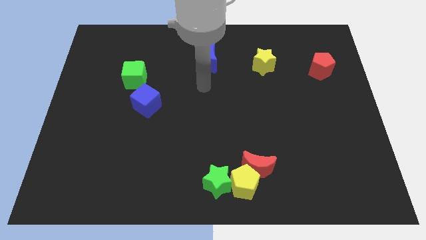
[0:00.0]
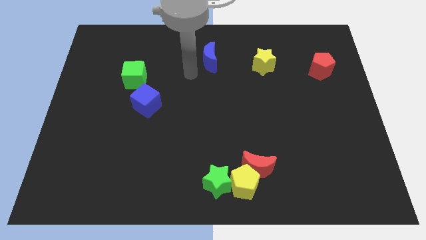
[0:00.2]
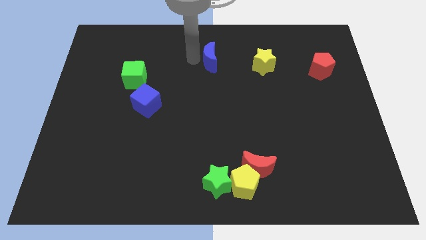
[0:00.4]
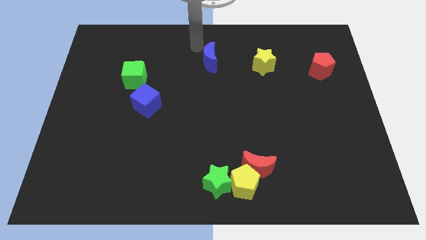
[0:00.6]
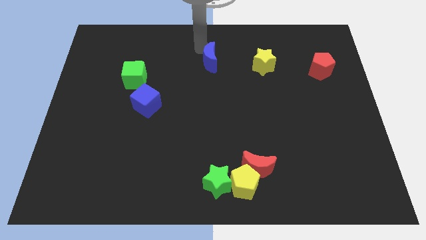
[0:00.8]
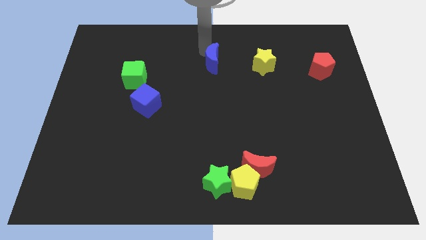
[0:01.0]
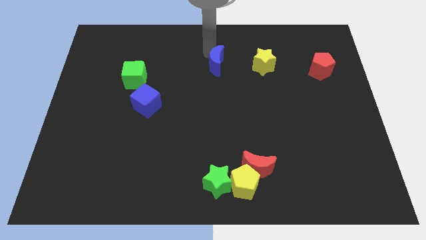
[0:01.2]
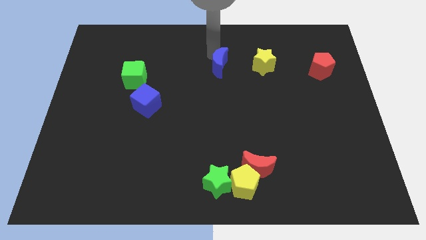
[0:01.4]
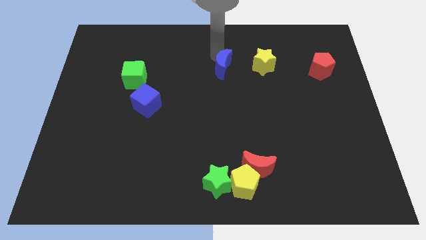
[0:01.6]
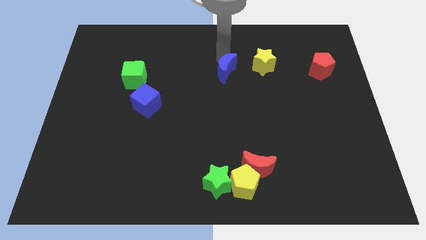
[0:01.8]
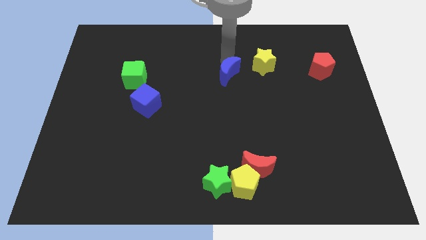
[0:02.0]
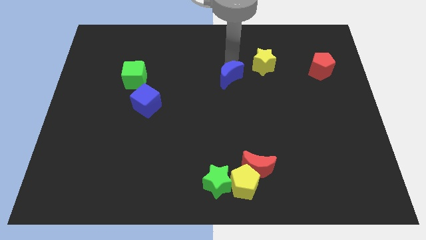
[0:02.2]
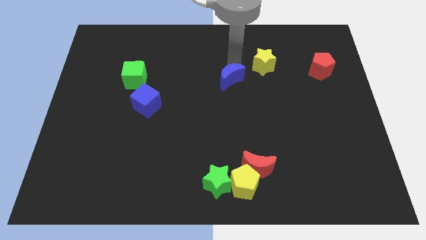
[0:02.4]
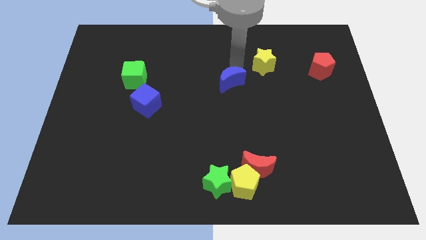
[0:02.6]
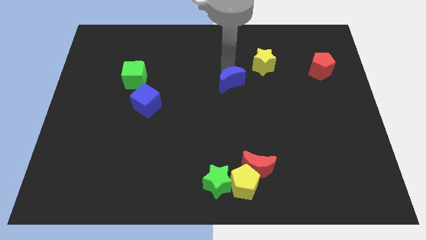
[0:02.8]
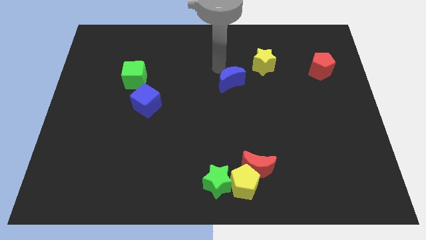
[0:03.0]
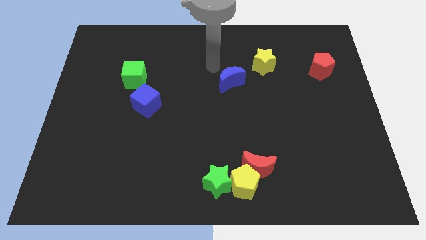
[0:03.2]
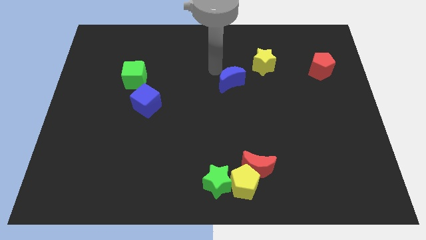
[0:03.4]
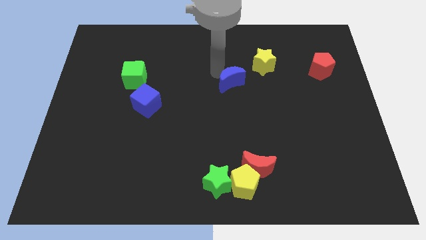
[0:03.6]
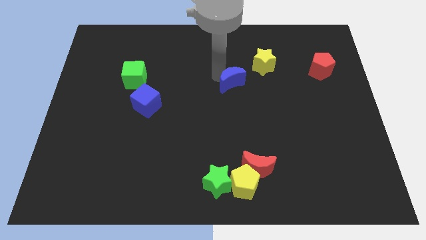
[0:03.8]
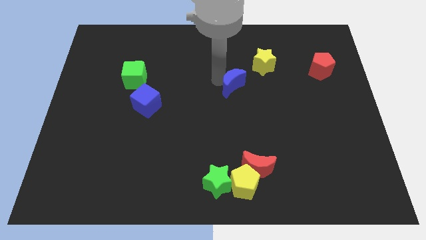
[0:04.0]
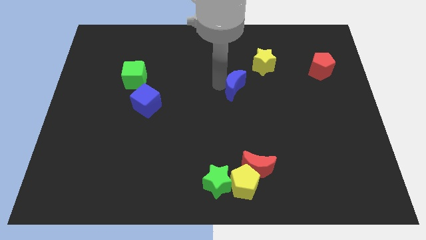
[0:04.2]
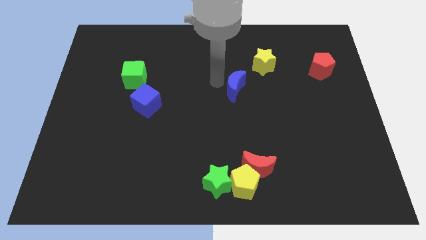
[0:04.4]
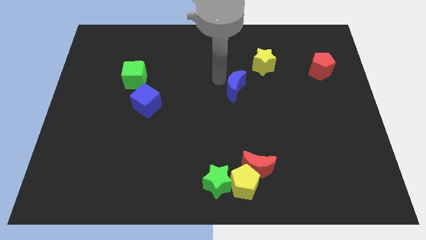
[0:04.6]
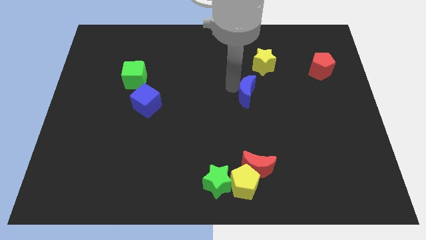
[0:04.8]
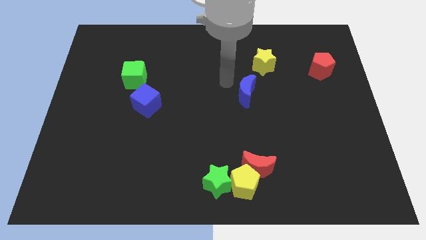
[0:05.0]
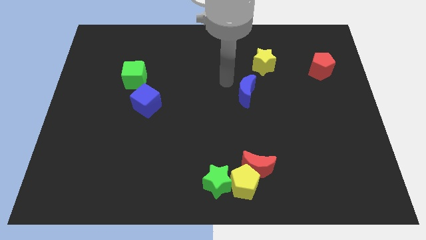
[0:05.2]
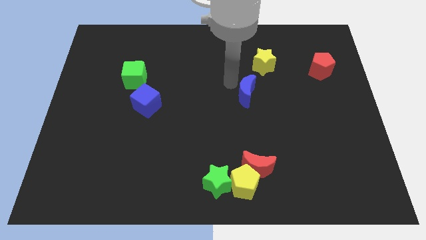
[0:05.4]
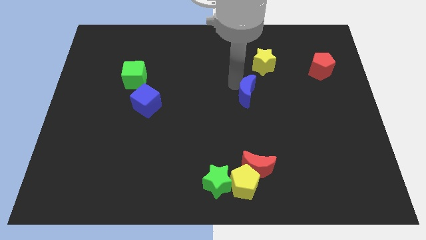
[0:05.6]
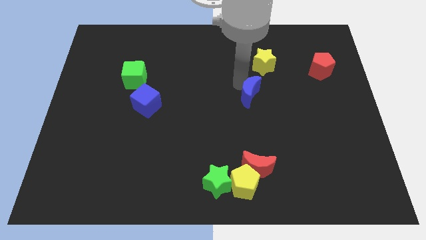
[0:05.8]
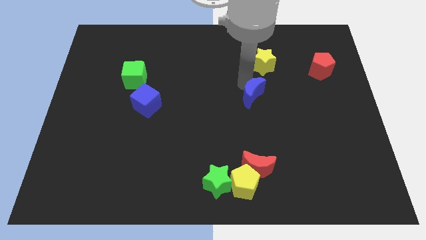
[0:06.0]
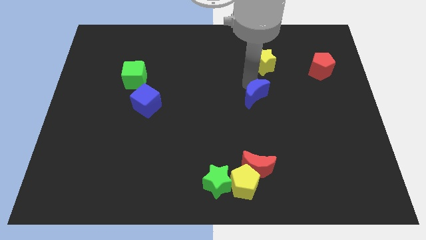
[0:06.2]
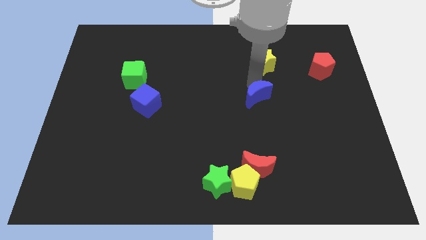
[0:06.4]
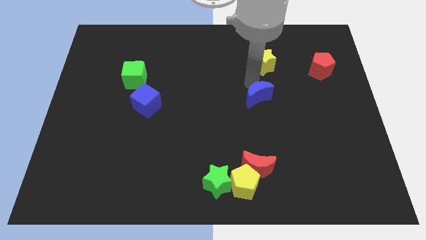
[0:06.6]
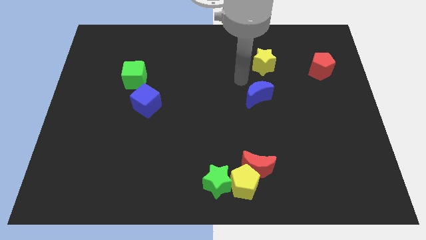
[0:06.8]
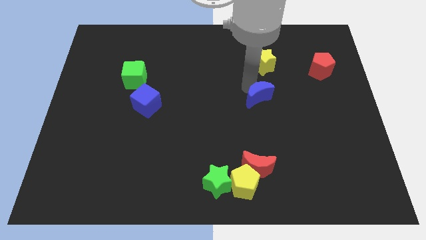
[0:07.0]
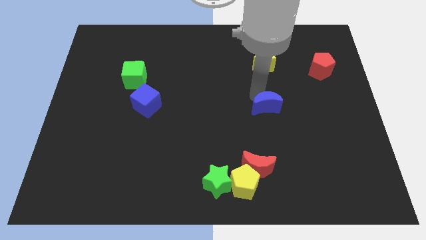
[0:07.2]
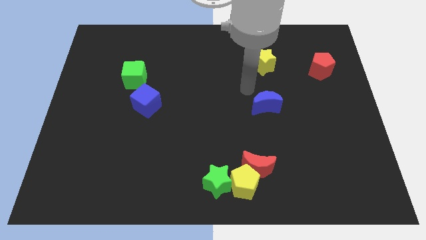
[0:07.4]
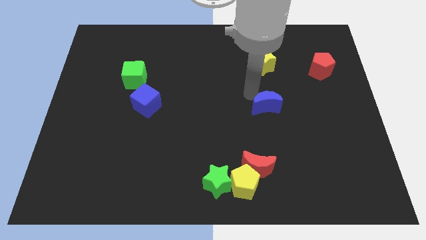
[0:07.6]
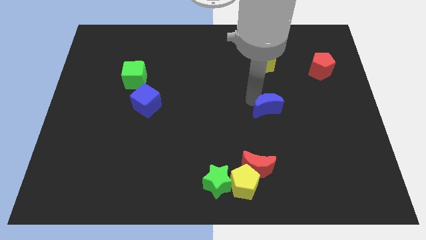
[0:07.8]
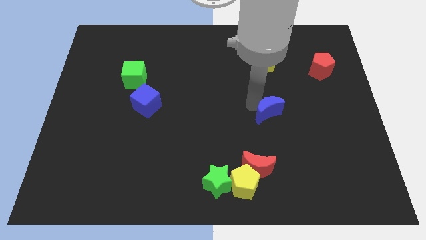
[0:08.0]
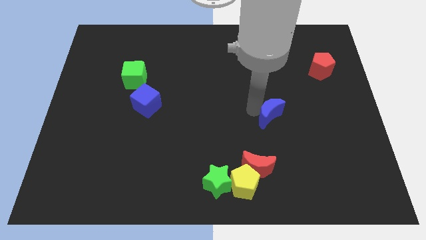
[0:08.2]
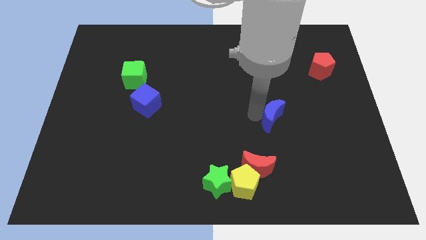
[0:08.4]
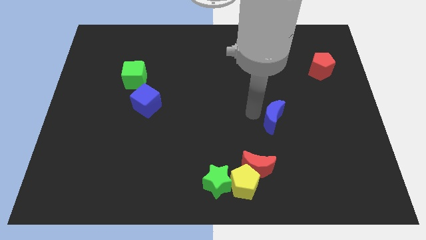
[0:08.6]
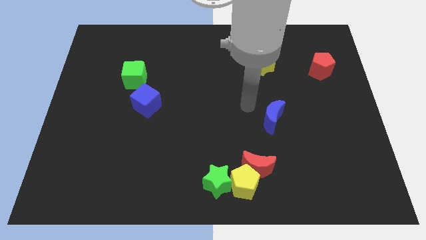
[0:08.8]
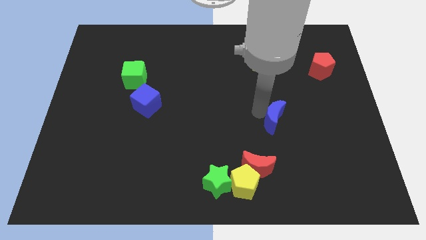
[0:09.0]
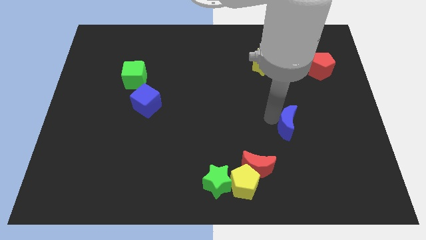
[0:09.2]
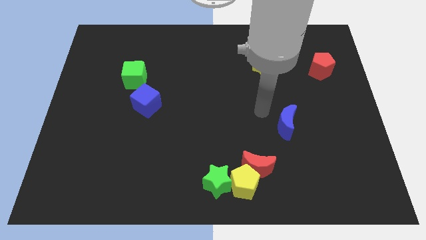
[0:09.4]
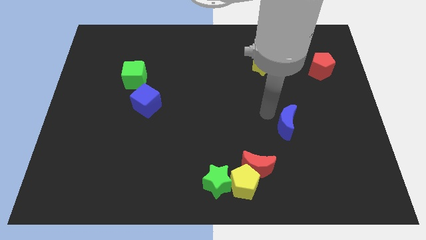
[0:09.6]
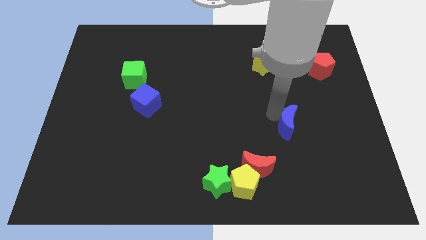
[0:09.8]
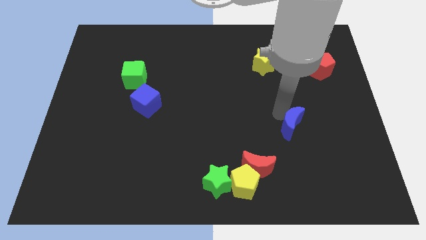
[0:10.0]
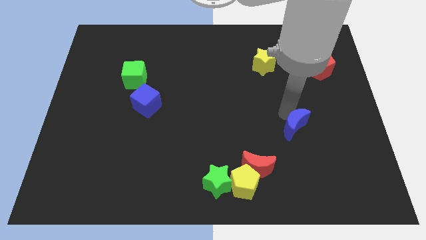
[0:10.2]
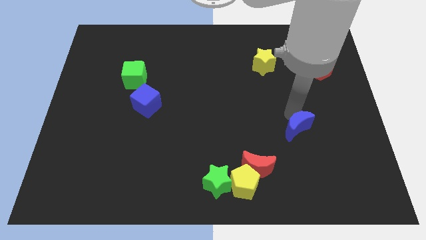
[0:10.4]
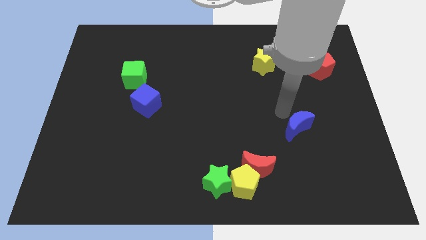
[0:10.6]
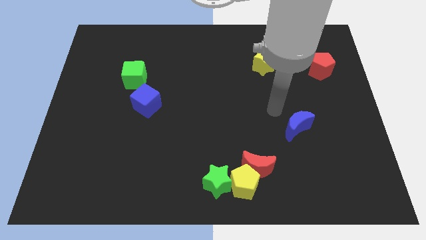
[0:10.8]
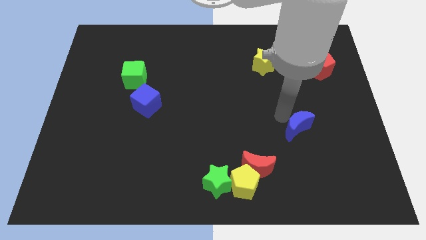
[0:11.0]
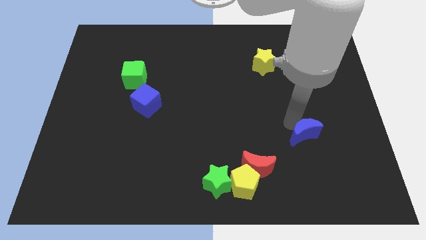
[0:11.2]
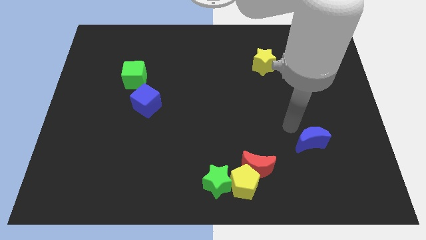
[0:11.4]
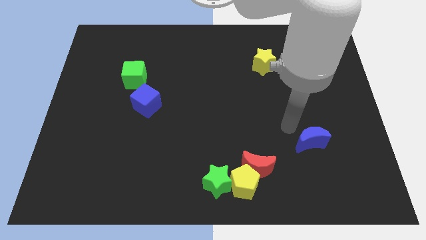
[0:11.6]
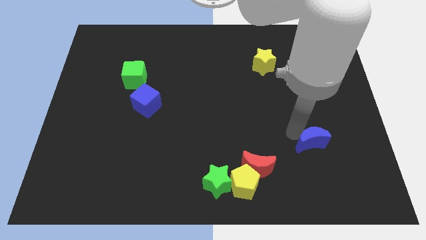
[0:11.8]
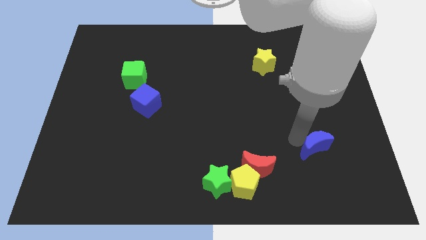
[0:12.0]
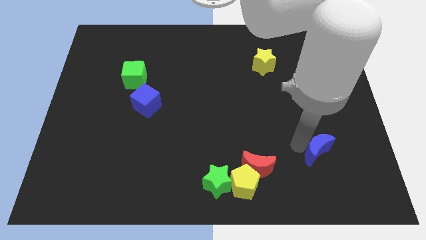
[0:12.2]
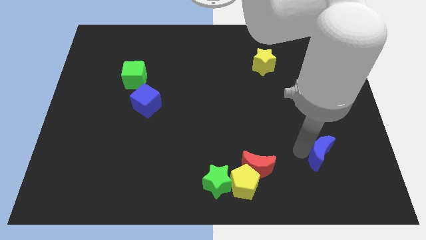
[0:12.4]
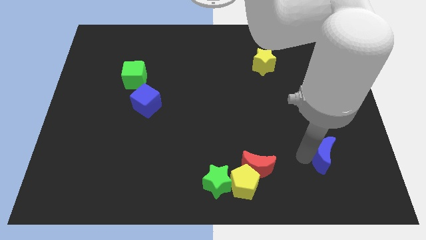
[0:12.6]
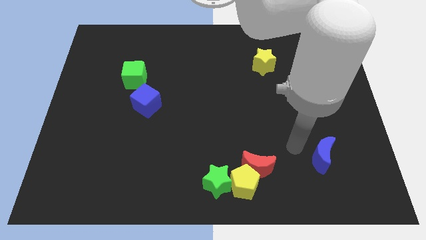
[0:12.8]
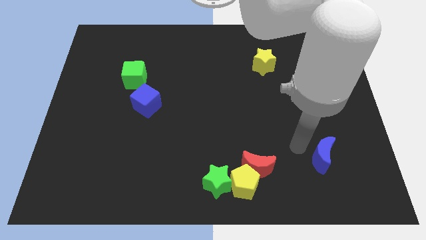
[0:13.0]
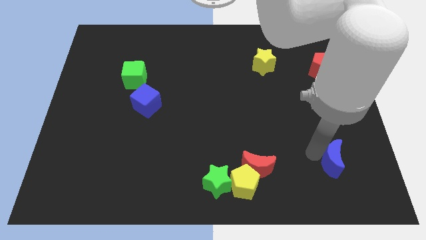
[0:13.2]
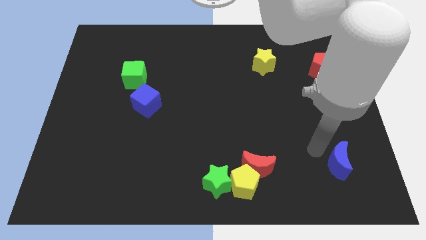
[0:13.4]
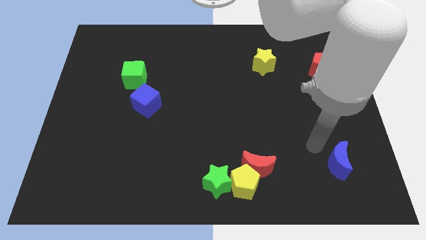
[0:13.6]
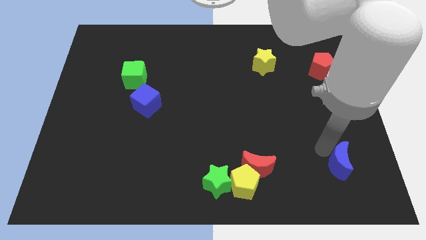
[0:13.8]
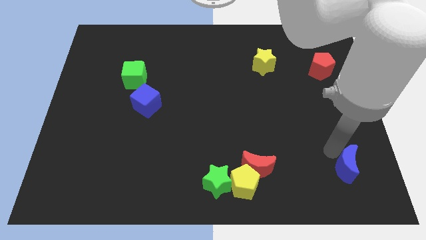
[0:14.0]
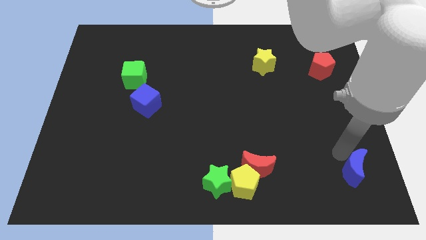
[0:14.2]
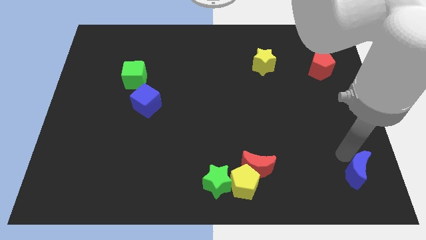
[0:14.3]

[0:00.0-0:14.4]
put the blue moon to the bottom right
